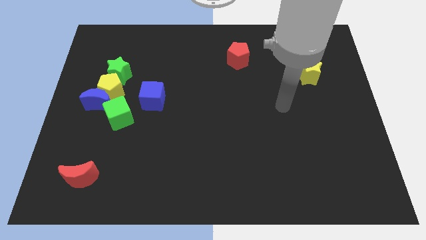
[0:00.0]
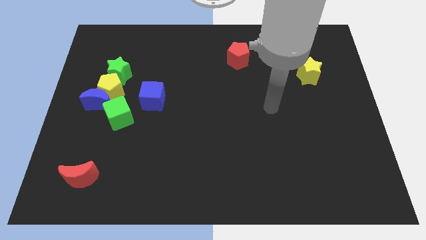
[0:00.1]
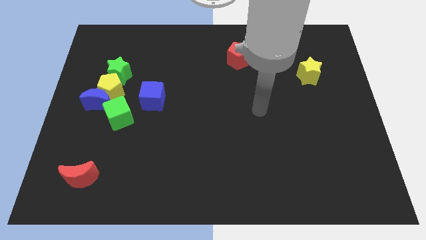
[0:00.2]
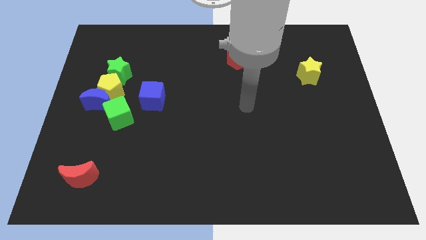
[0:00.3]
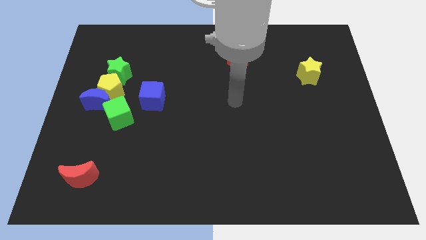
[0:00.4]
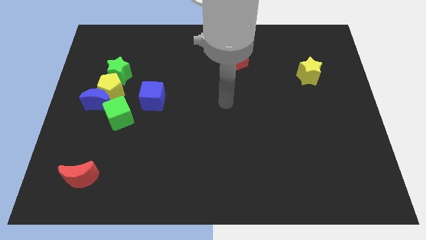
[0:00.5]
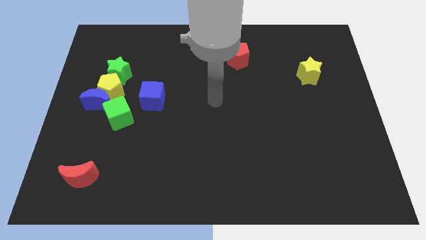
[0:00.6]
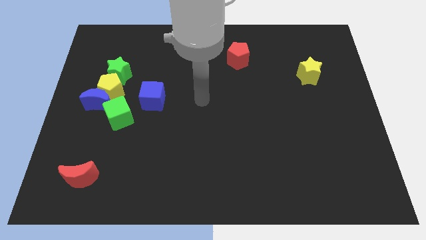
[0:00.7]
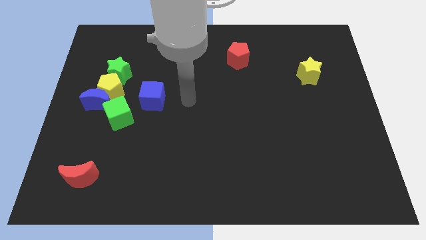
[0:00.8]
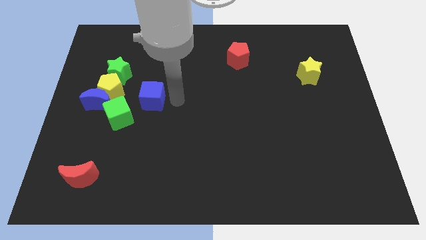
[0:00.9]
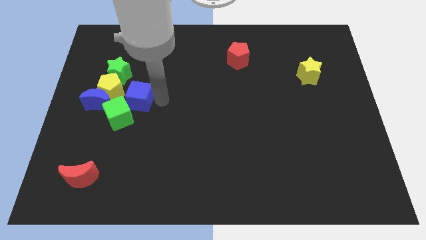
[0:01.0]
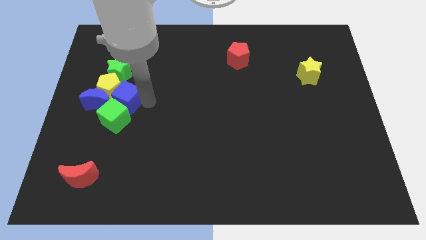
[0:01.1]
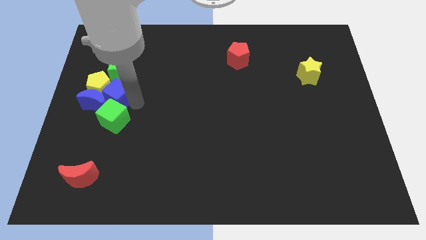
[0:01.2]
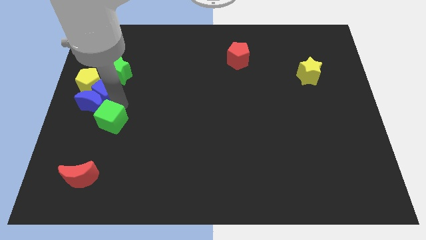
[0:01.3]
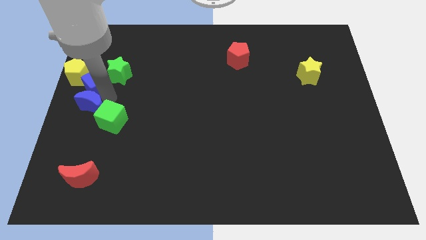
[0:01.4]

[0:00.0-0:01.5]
separate the yellow pentagon from the blue moon, green star, and green cube

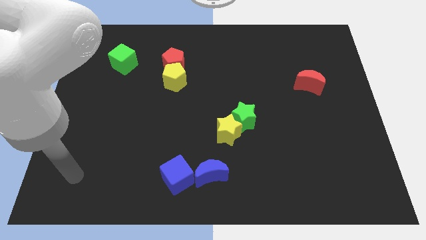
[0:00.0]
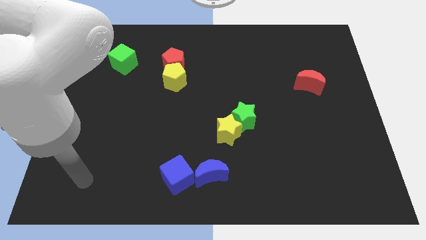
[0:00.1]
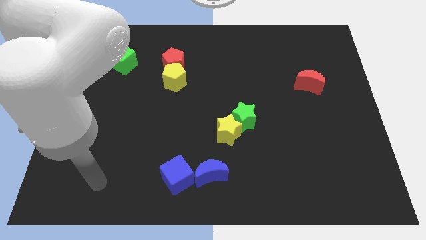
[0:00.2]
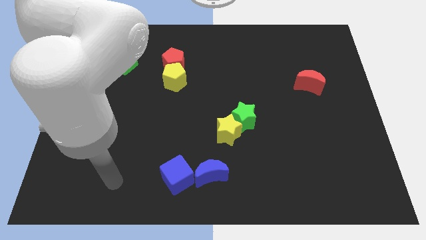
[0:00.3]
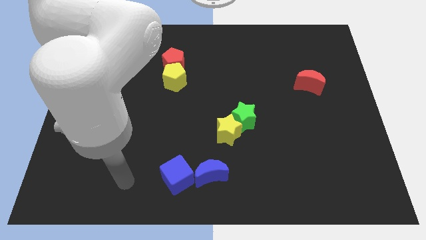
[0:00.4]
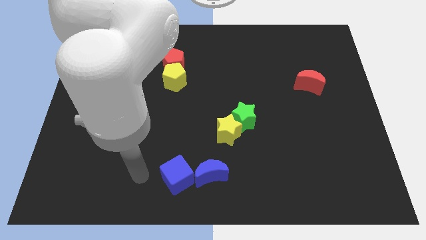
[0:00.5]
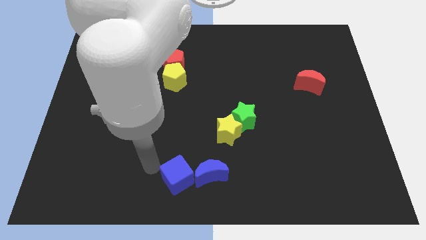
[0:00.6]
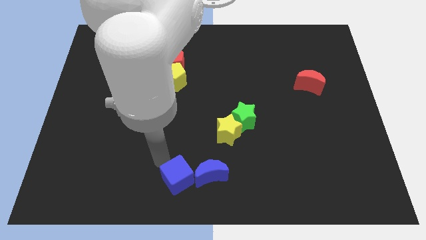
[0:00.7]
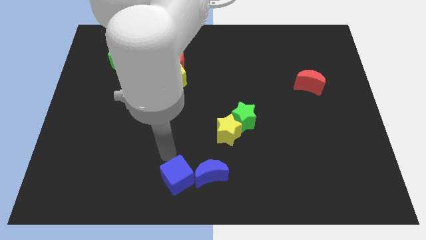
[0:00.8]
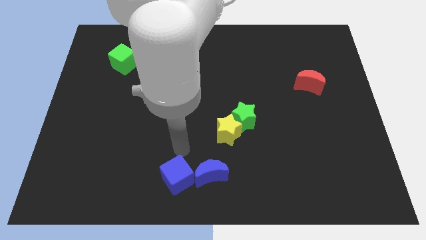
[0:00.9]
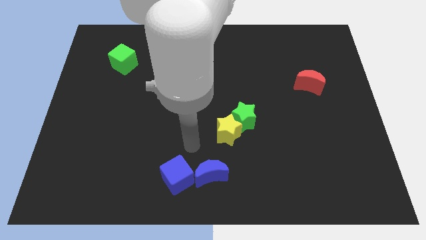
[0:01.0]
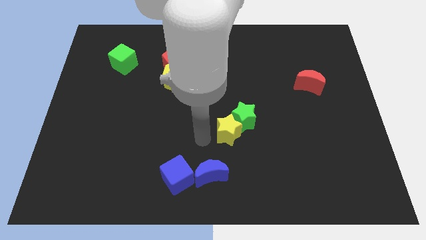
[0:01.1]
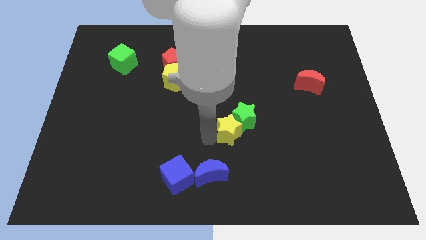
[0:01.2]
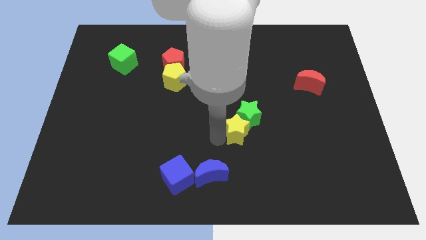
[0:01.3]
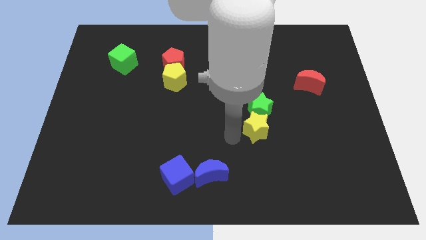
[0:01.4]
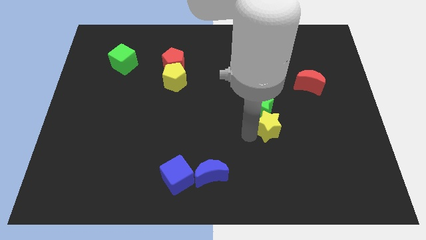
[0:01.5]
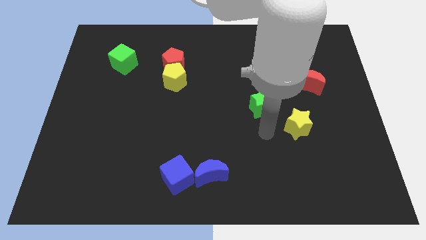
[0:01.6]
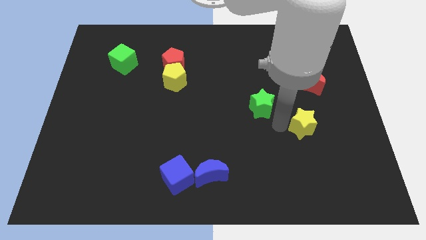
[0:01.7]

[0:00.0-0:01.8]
separate the green star from the yellow star

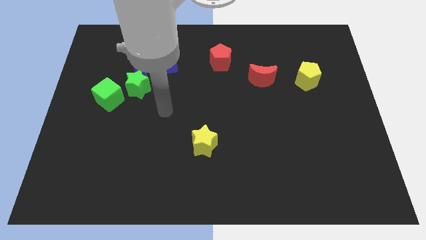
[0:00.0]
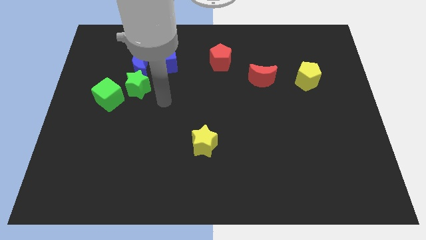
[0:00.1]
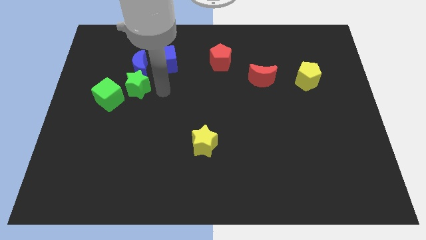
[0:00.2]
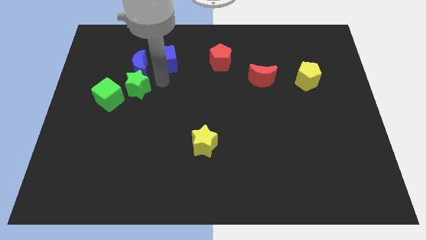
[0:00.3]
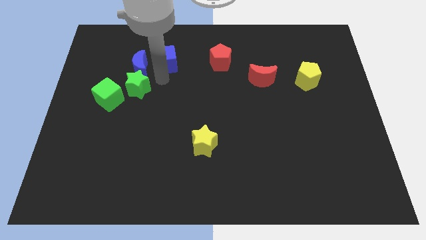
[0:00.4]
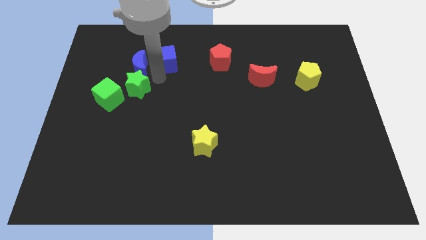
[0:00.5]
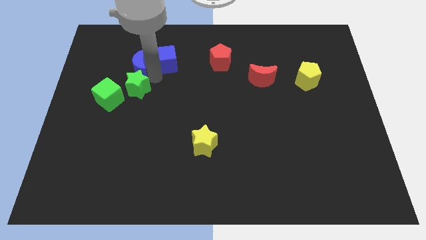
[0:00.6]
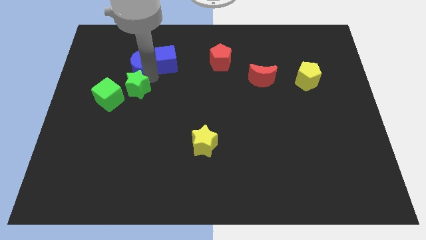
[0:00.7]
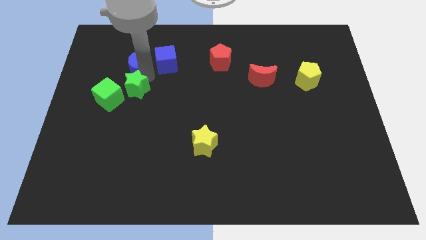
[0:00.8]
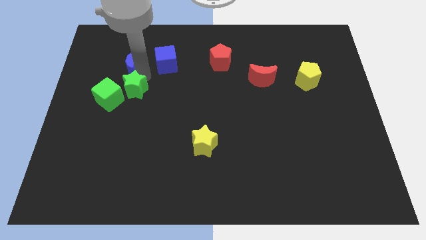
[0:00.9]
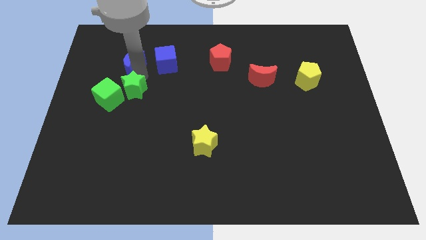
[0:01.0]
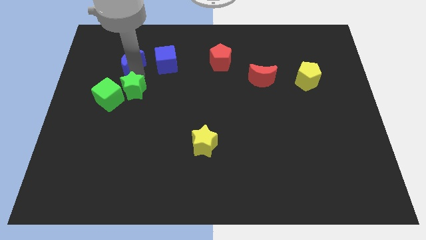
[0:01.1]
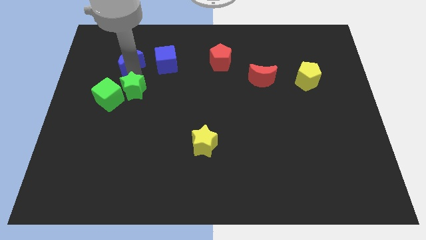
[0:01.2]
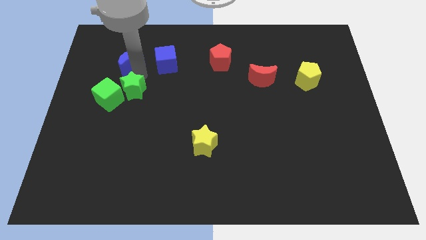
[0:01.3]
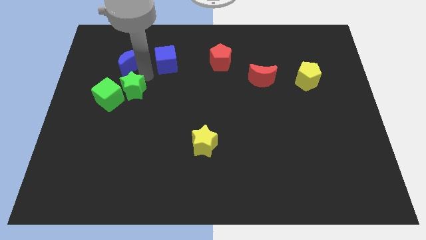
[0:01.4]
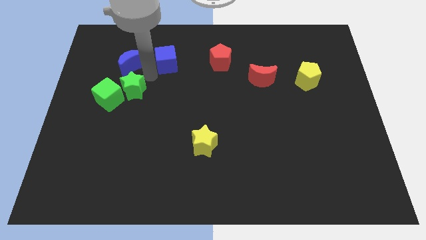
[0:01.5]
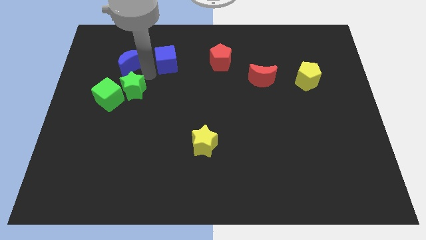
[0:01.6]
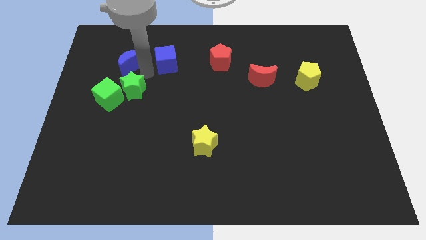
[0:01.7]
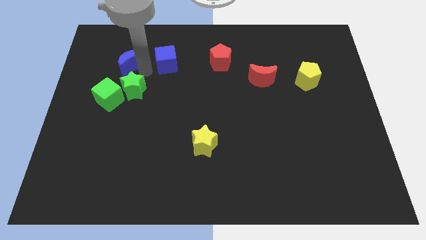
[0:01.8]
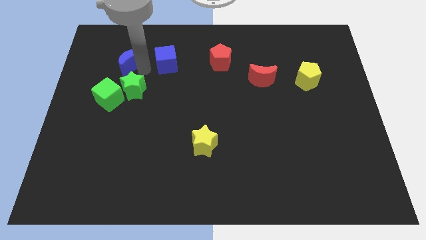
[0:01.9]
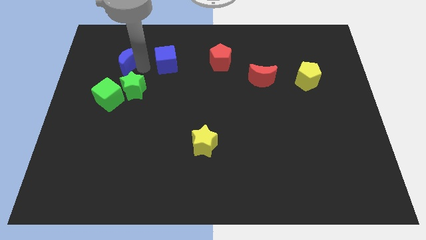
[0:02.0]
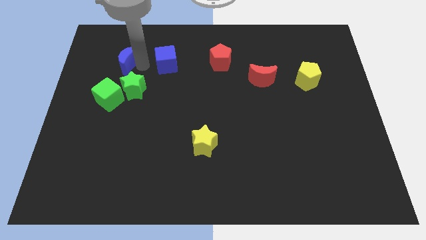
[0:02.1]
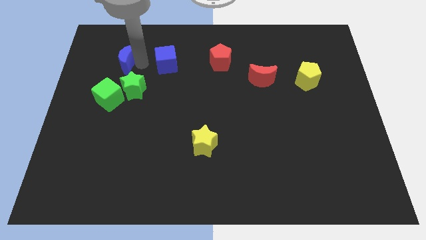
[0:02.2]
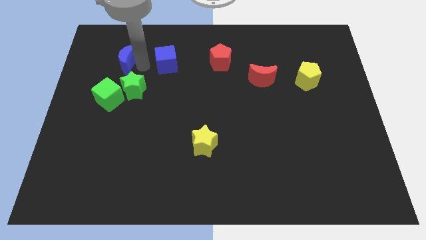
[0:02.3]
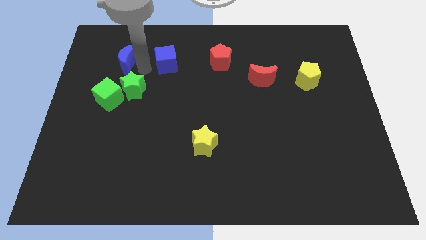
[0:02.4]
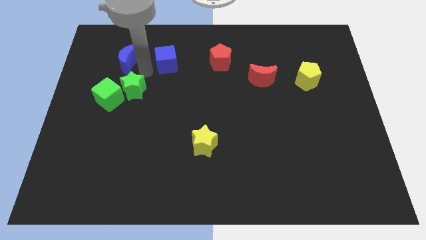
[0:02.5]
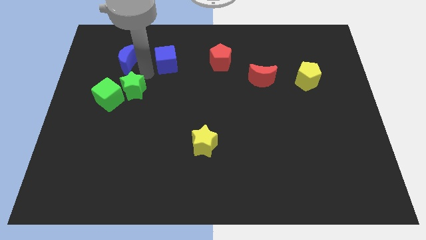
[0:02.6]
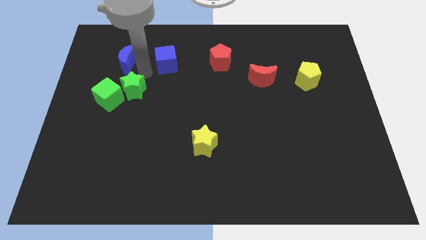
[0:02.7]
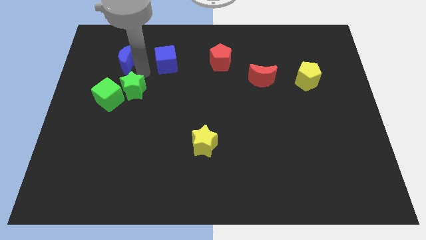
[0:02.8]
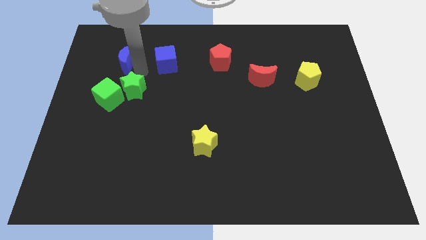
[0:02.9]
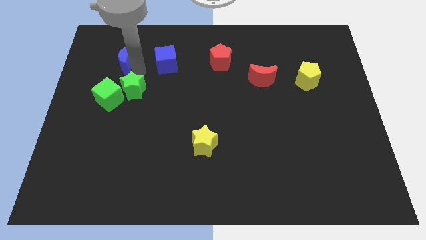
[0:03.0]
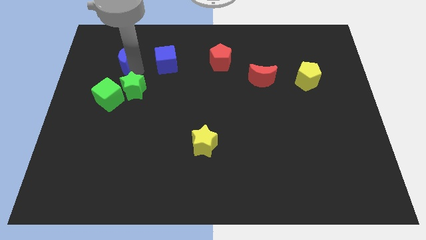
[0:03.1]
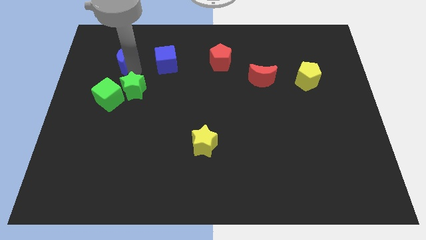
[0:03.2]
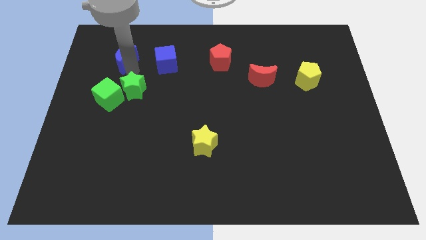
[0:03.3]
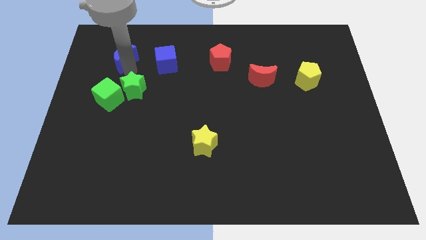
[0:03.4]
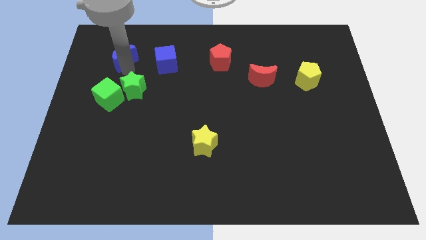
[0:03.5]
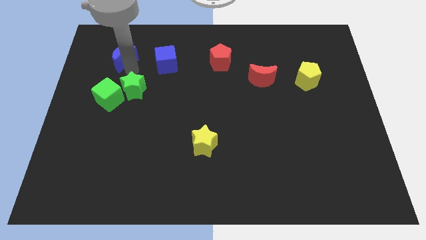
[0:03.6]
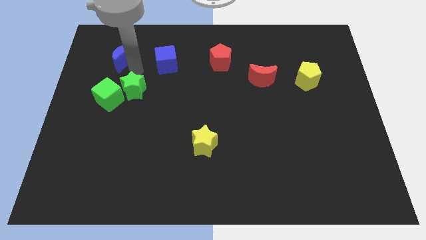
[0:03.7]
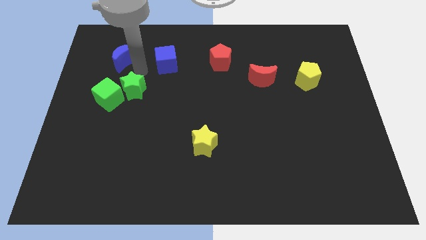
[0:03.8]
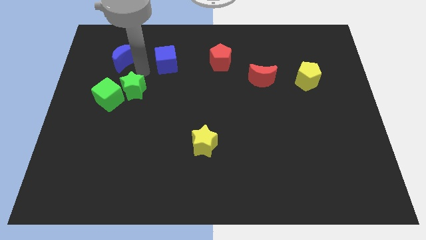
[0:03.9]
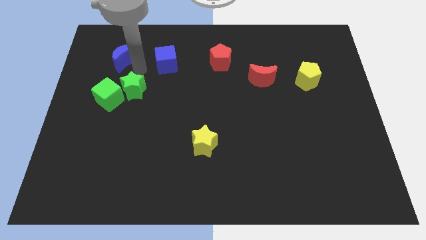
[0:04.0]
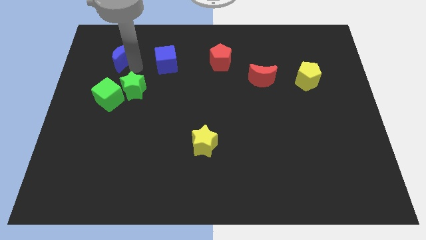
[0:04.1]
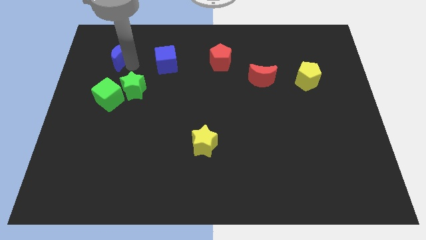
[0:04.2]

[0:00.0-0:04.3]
move the blue moon away from the green star and blue cube

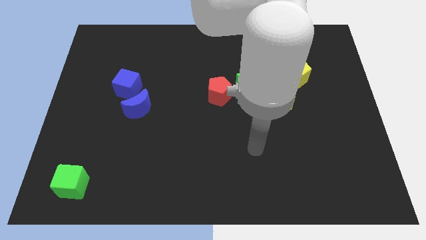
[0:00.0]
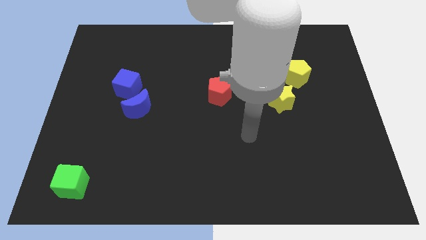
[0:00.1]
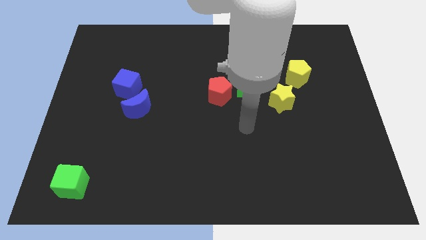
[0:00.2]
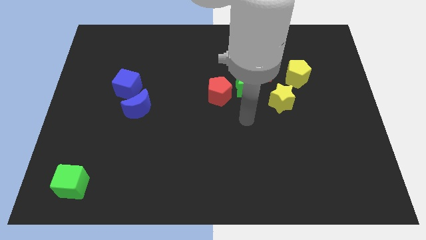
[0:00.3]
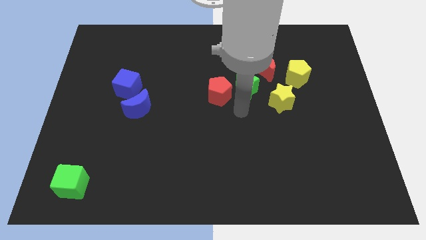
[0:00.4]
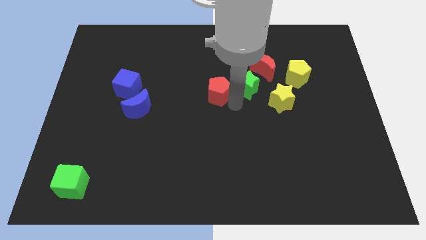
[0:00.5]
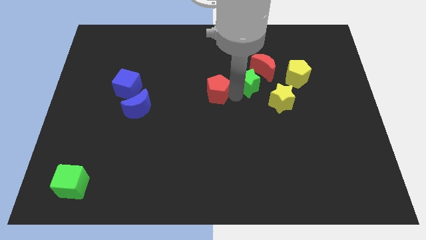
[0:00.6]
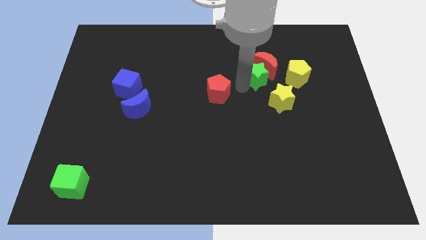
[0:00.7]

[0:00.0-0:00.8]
move the red pentagon away from the green star

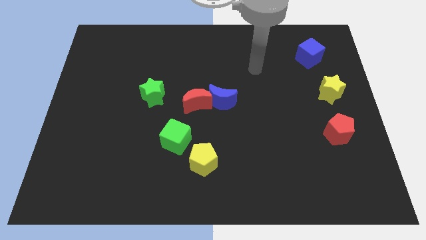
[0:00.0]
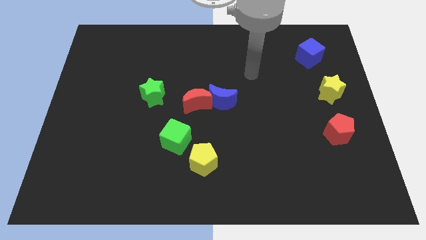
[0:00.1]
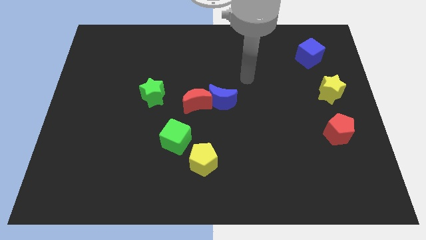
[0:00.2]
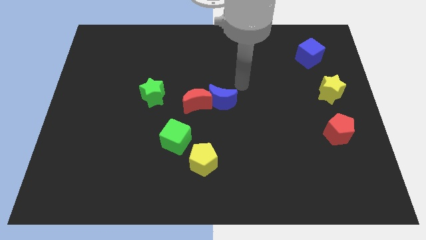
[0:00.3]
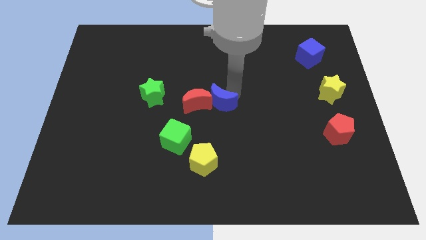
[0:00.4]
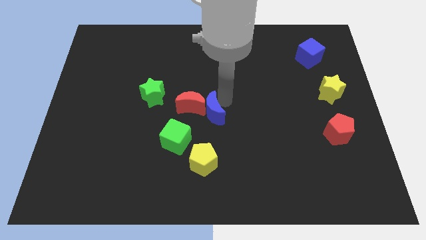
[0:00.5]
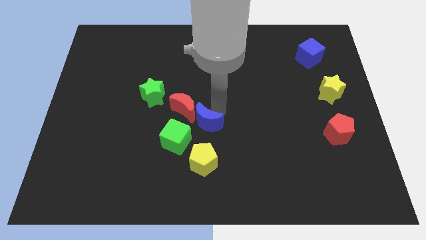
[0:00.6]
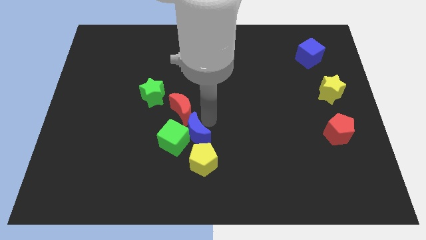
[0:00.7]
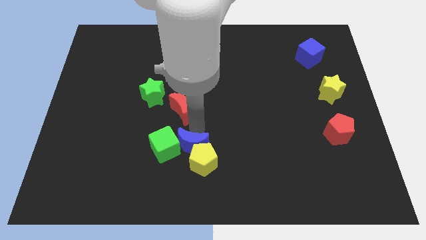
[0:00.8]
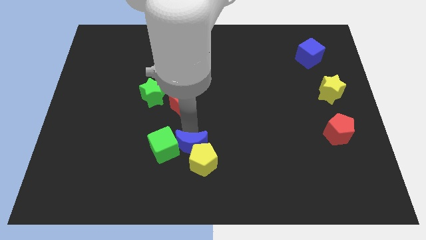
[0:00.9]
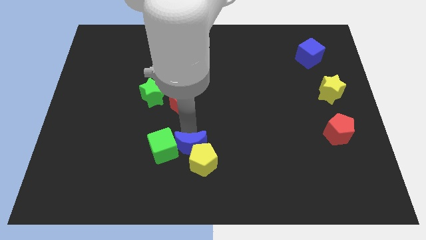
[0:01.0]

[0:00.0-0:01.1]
pull the red moon apart from the blue moon
